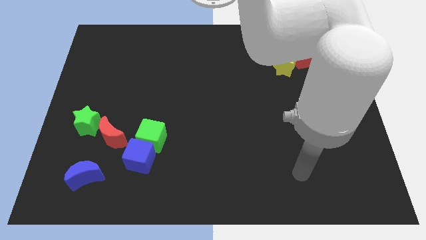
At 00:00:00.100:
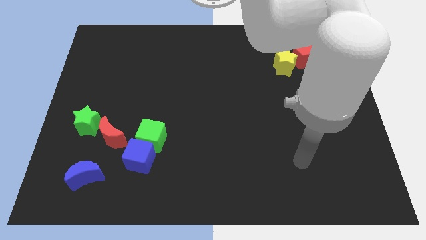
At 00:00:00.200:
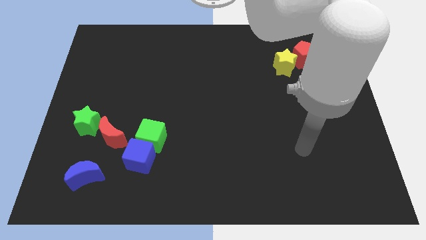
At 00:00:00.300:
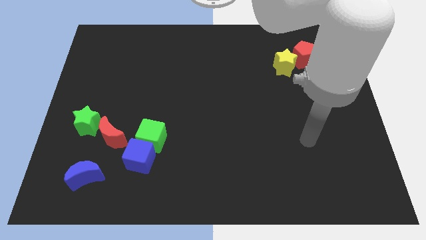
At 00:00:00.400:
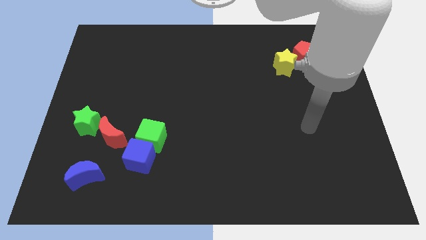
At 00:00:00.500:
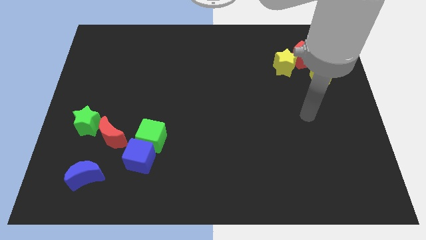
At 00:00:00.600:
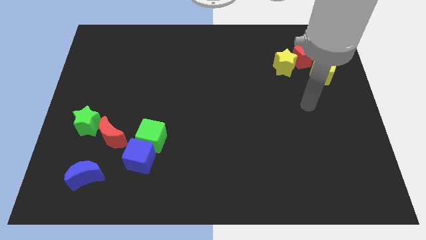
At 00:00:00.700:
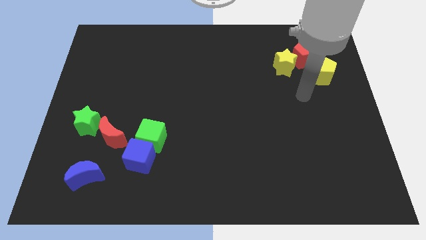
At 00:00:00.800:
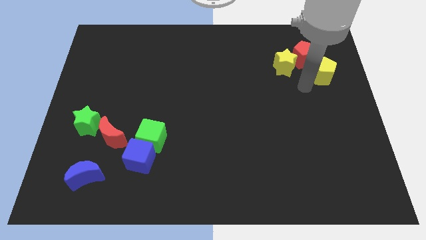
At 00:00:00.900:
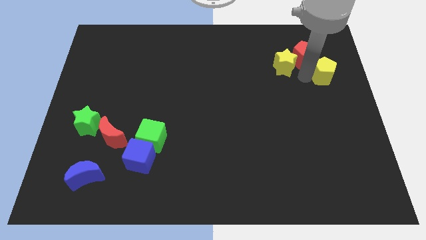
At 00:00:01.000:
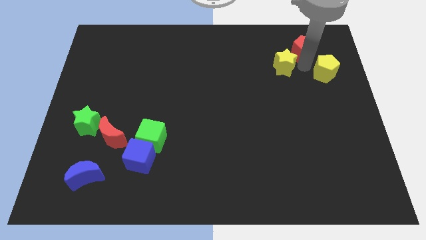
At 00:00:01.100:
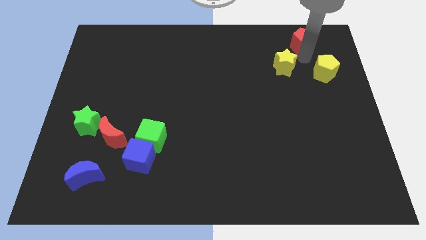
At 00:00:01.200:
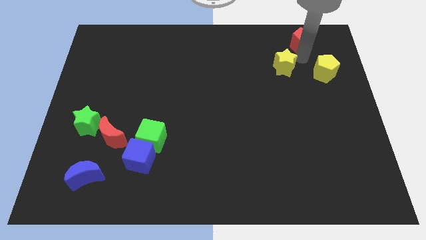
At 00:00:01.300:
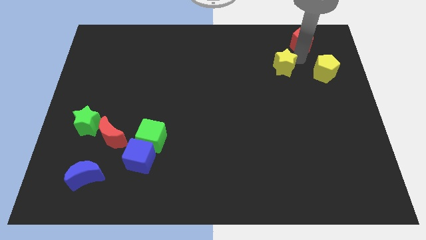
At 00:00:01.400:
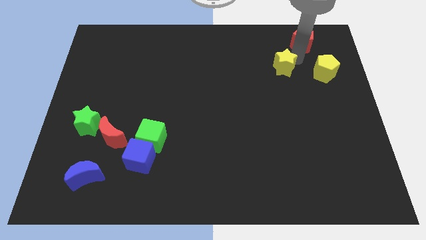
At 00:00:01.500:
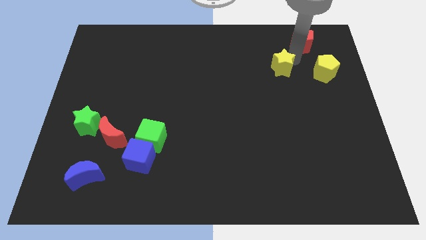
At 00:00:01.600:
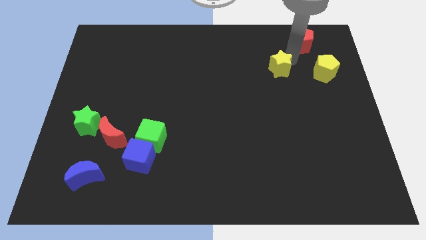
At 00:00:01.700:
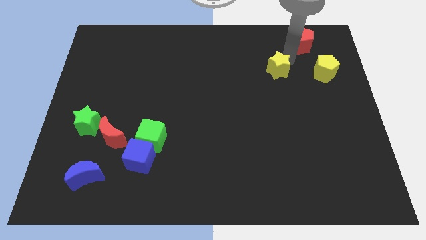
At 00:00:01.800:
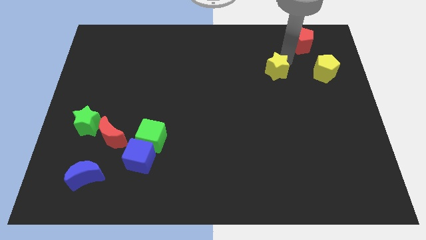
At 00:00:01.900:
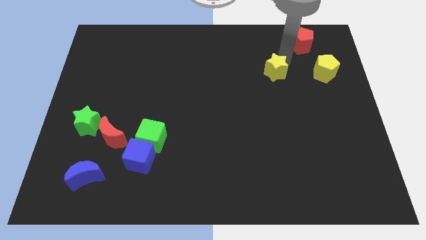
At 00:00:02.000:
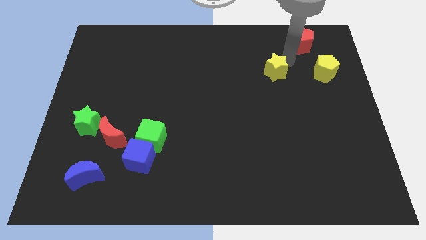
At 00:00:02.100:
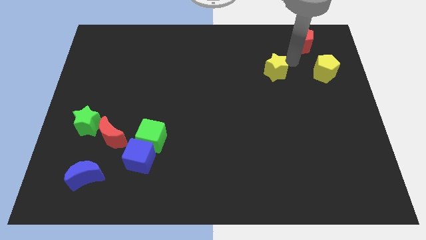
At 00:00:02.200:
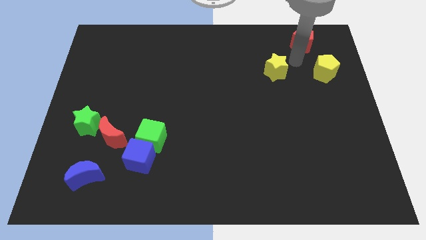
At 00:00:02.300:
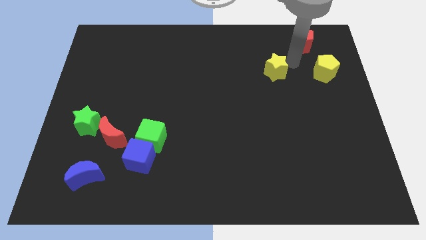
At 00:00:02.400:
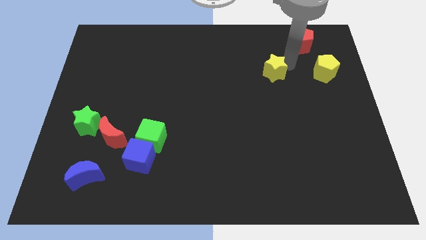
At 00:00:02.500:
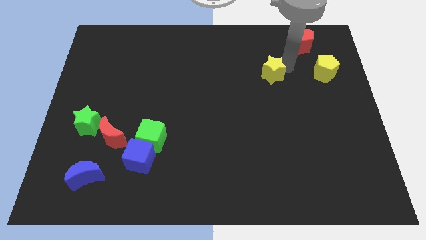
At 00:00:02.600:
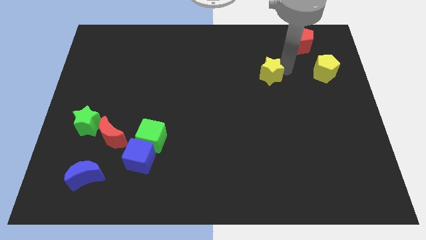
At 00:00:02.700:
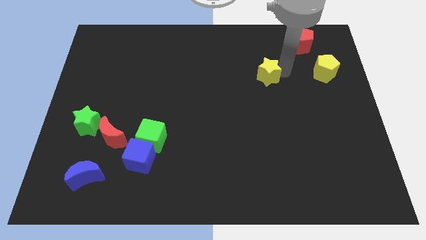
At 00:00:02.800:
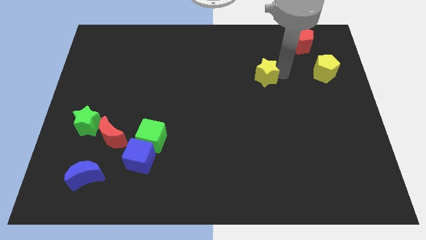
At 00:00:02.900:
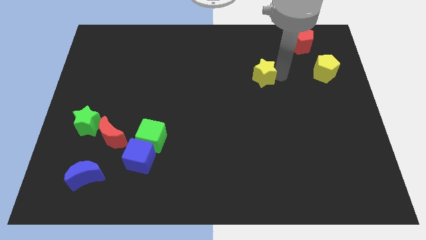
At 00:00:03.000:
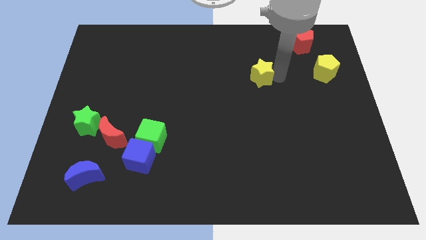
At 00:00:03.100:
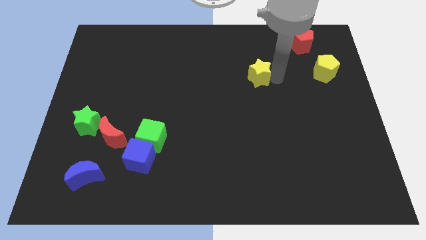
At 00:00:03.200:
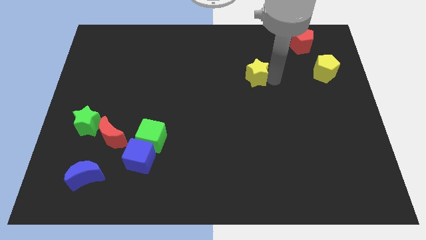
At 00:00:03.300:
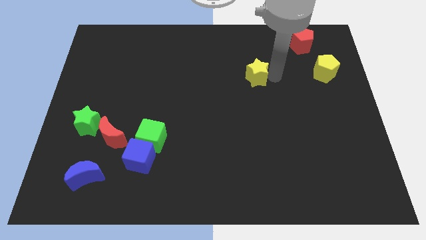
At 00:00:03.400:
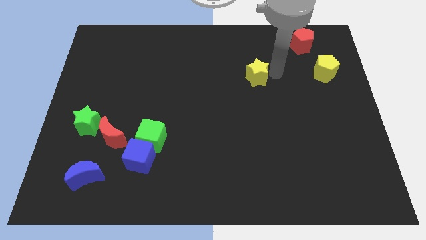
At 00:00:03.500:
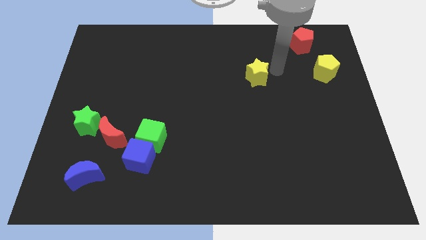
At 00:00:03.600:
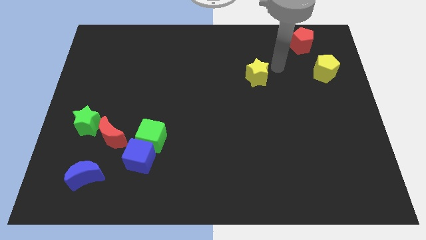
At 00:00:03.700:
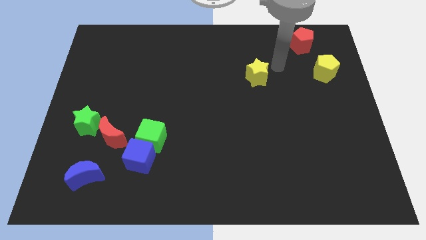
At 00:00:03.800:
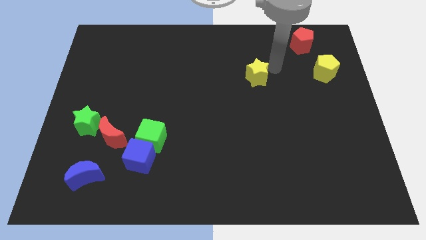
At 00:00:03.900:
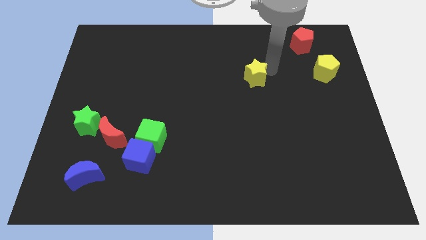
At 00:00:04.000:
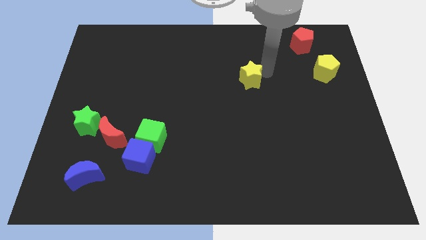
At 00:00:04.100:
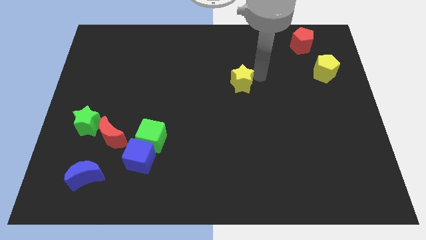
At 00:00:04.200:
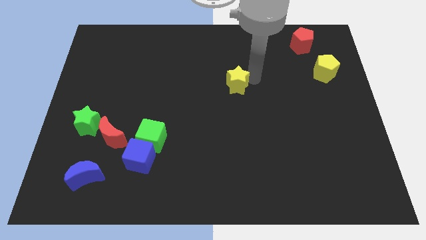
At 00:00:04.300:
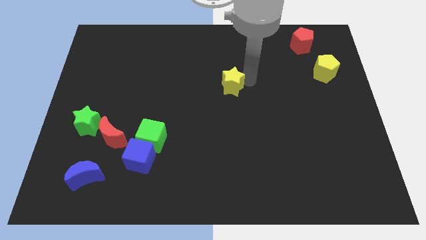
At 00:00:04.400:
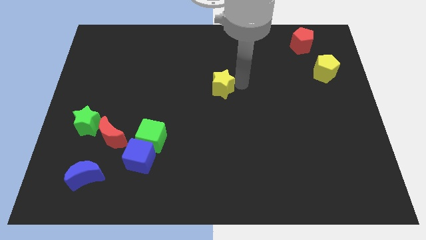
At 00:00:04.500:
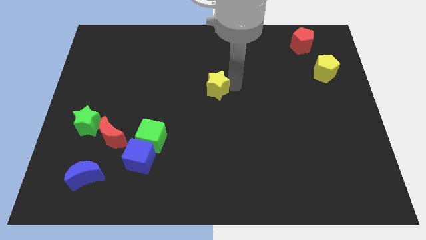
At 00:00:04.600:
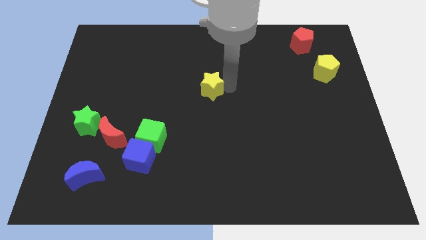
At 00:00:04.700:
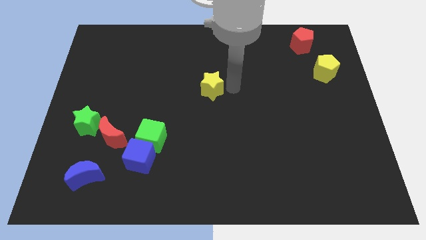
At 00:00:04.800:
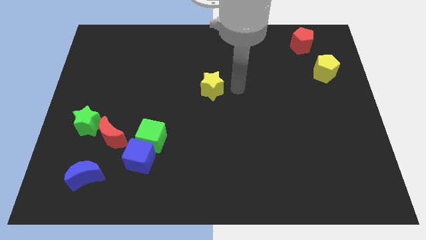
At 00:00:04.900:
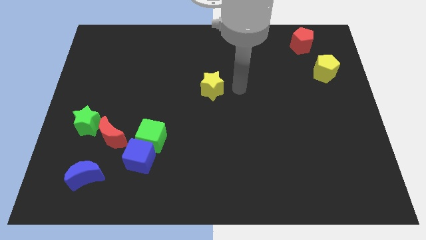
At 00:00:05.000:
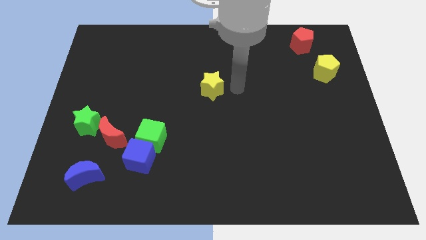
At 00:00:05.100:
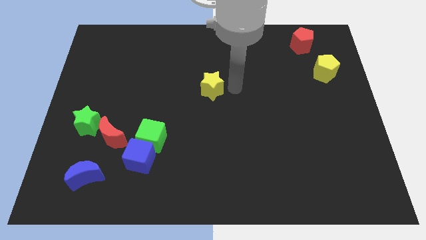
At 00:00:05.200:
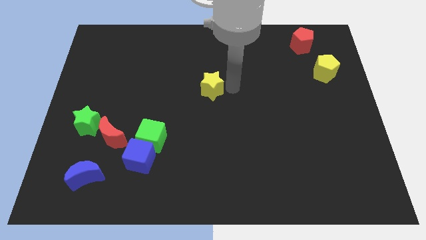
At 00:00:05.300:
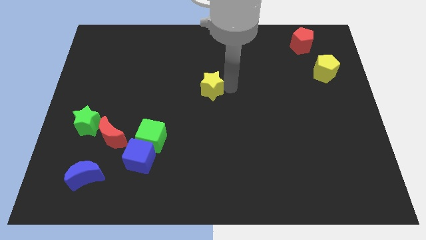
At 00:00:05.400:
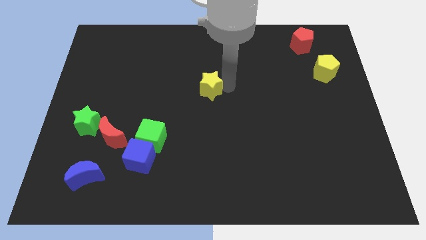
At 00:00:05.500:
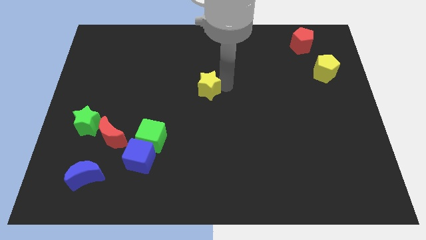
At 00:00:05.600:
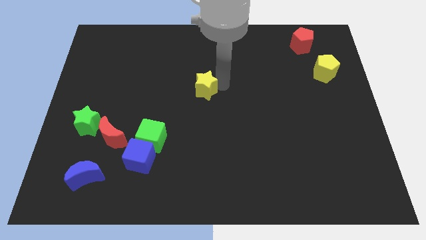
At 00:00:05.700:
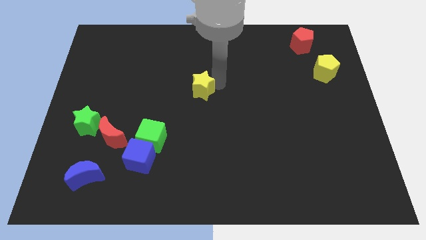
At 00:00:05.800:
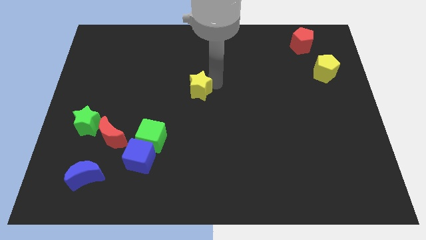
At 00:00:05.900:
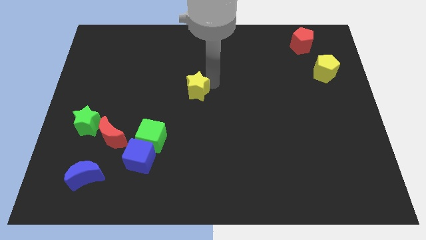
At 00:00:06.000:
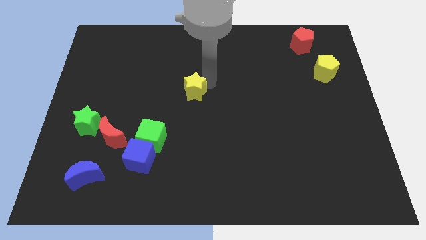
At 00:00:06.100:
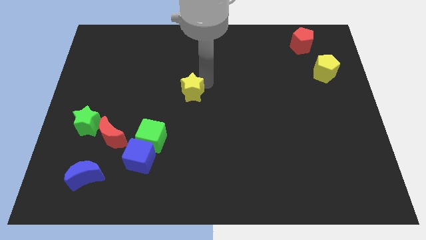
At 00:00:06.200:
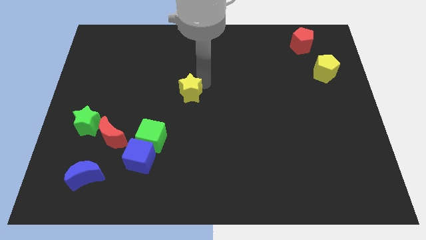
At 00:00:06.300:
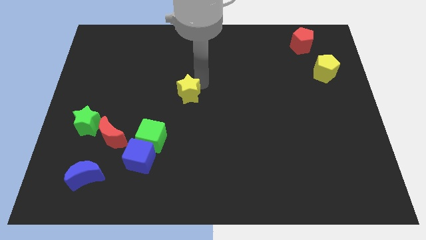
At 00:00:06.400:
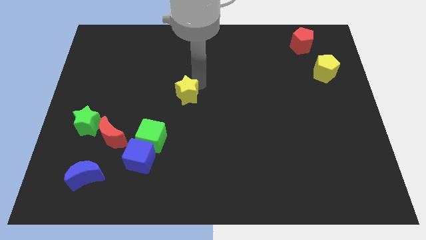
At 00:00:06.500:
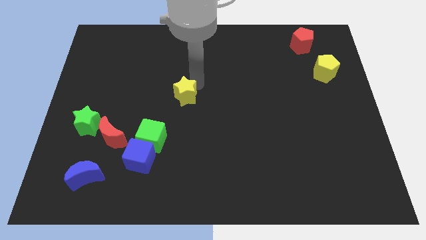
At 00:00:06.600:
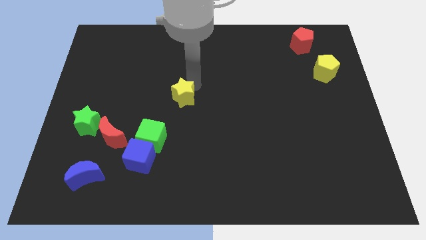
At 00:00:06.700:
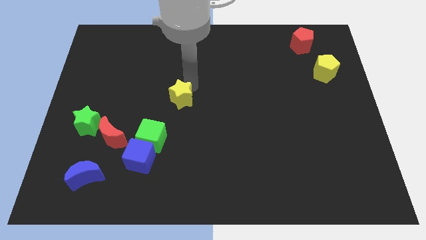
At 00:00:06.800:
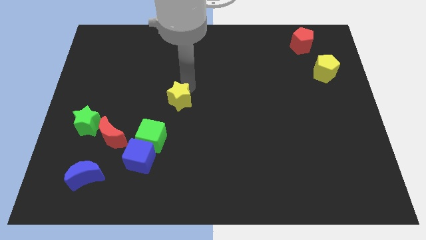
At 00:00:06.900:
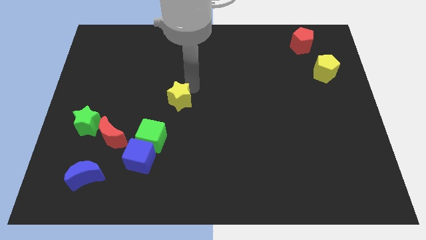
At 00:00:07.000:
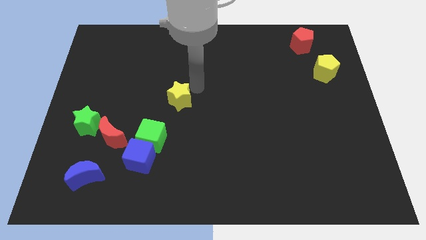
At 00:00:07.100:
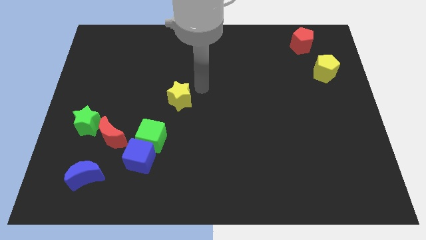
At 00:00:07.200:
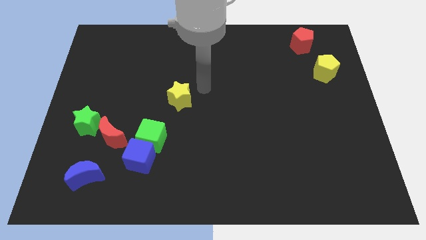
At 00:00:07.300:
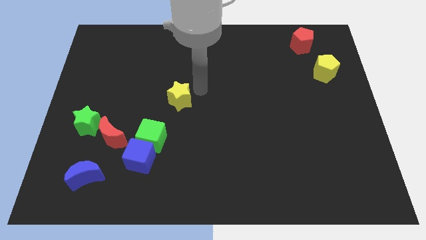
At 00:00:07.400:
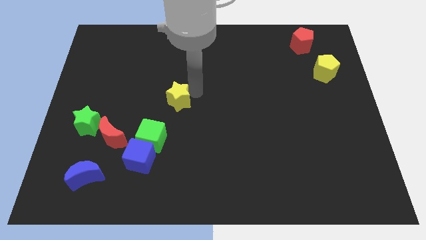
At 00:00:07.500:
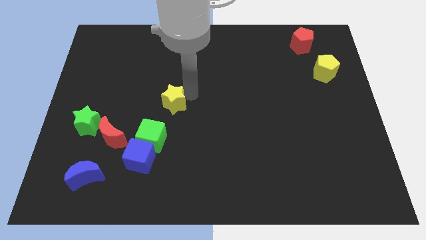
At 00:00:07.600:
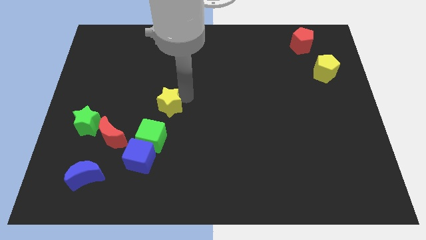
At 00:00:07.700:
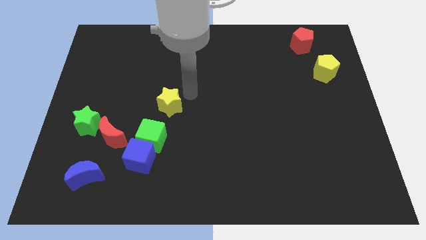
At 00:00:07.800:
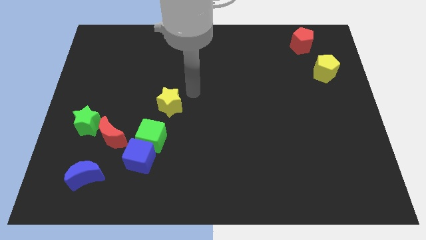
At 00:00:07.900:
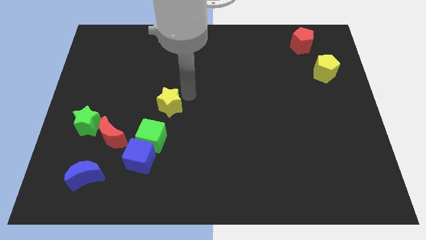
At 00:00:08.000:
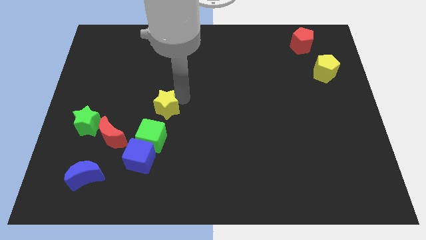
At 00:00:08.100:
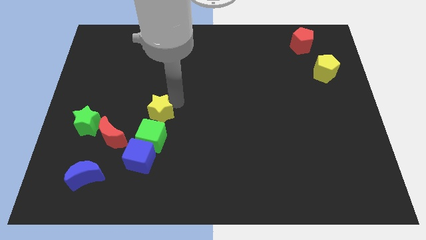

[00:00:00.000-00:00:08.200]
move the yellow star to the top of the blue cube
